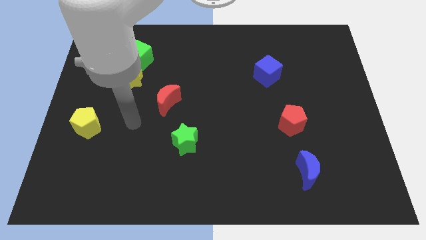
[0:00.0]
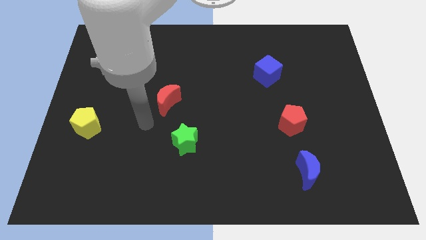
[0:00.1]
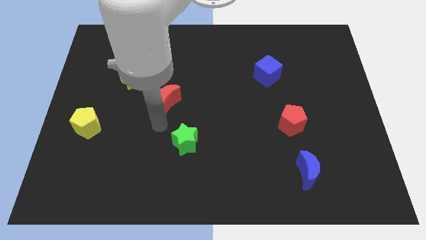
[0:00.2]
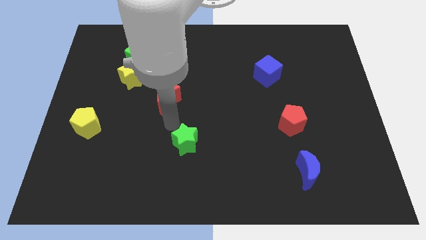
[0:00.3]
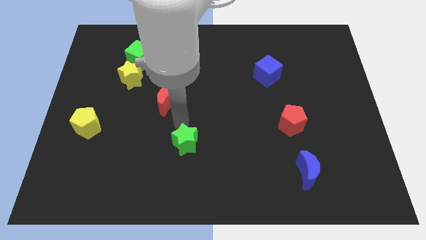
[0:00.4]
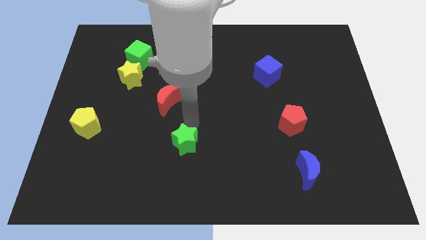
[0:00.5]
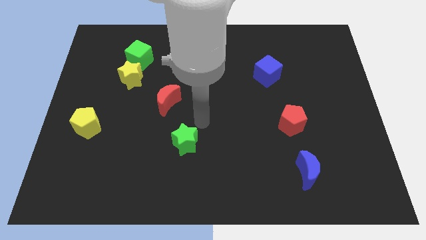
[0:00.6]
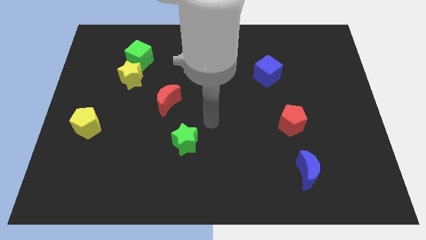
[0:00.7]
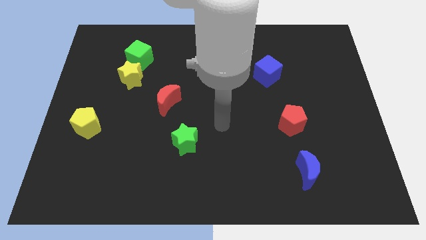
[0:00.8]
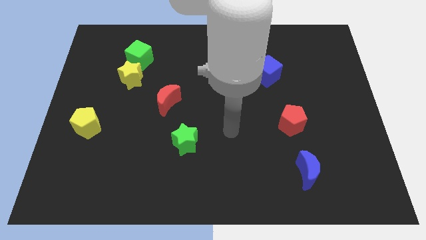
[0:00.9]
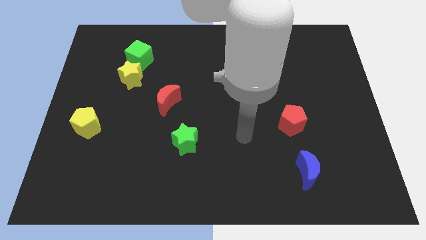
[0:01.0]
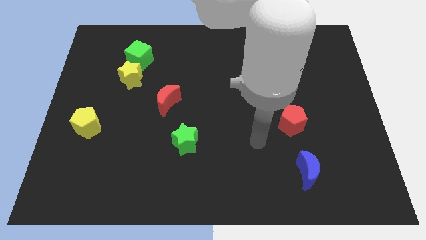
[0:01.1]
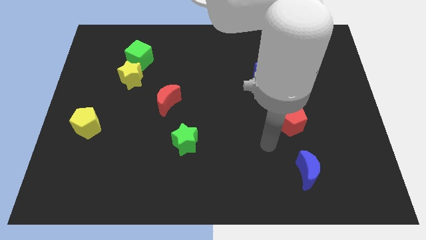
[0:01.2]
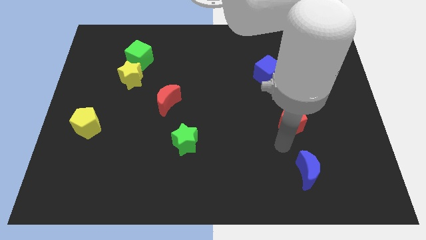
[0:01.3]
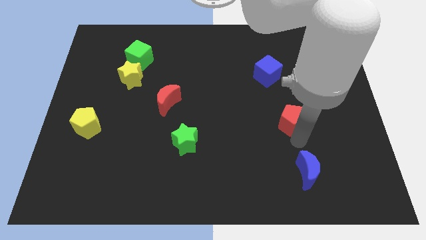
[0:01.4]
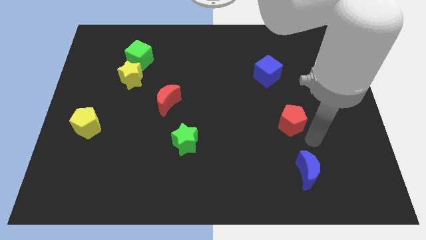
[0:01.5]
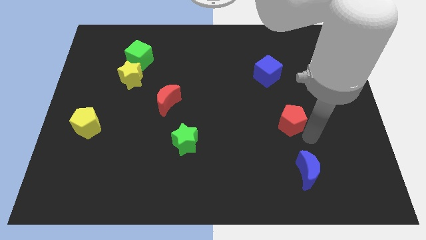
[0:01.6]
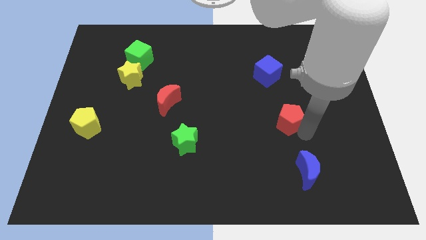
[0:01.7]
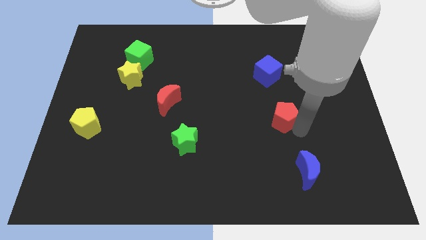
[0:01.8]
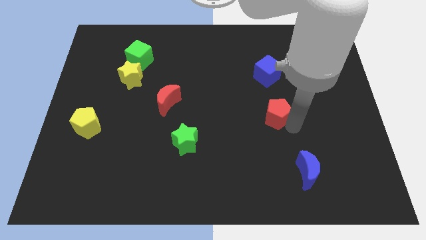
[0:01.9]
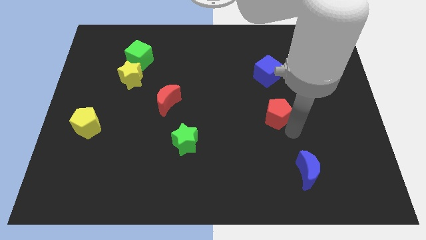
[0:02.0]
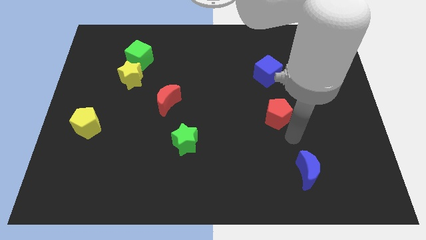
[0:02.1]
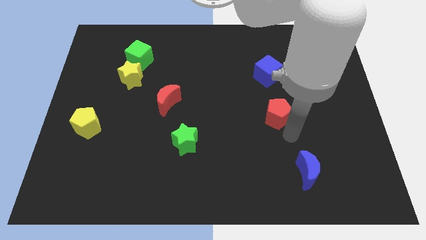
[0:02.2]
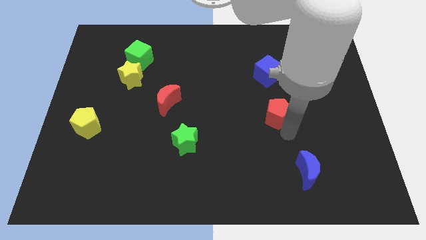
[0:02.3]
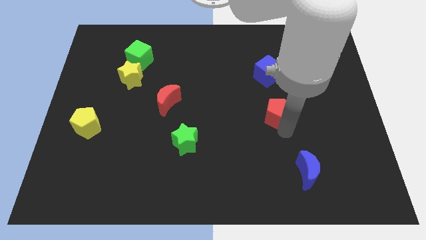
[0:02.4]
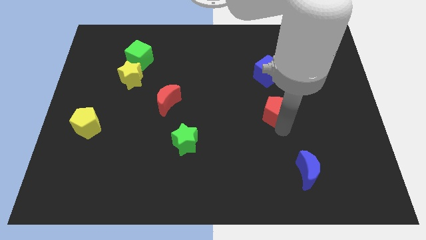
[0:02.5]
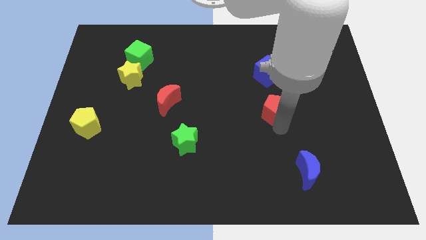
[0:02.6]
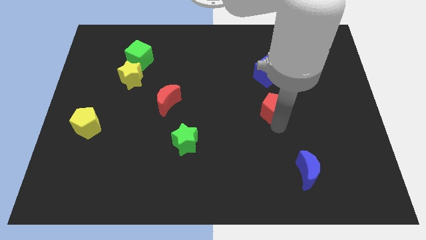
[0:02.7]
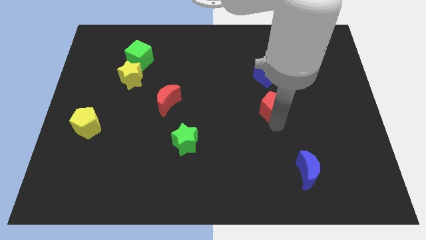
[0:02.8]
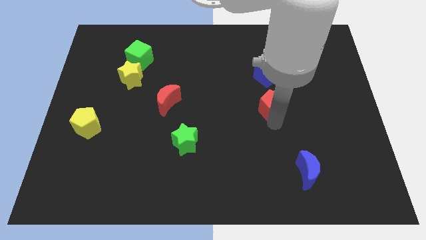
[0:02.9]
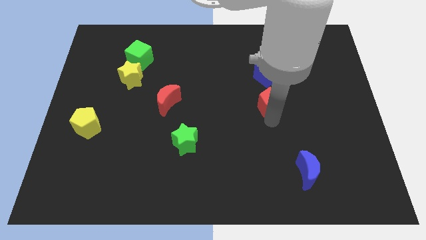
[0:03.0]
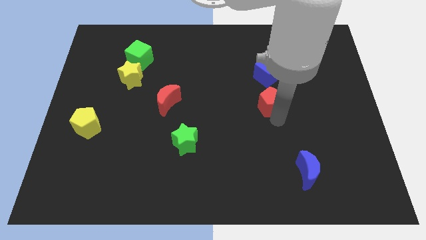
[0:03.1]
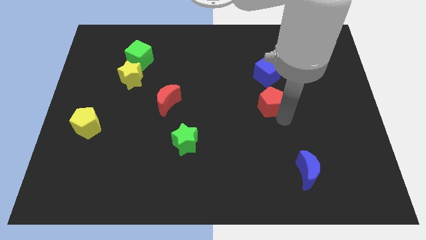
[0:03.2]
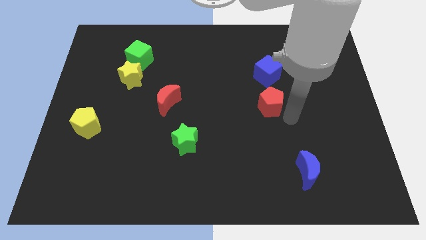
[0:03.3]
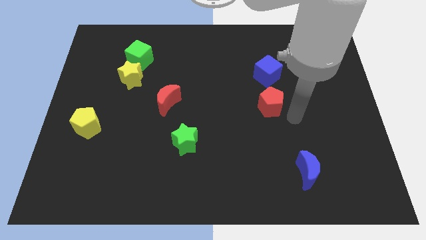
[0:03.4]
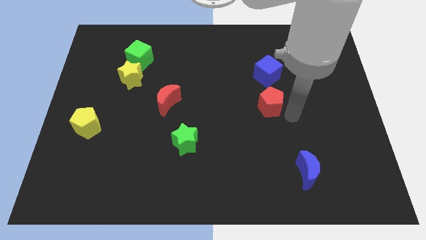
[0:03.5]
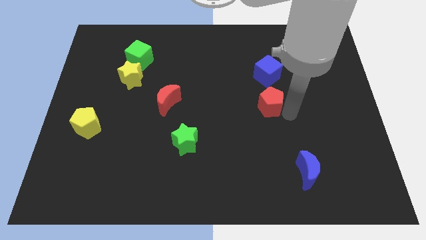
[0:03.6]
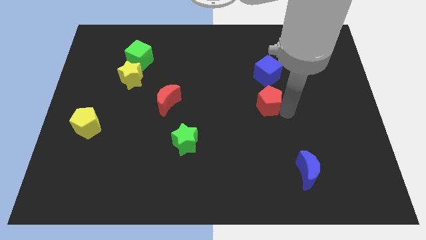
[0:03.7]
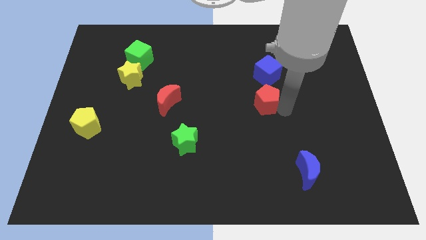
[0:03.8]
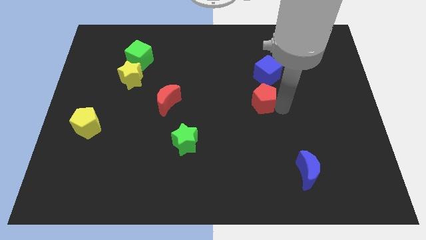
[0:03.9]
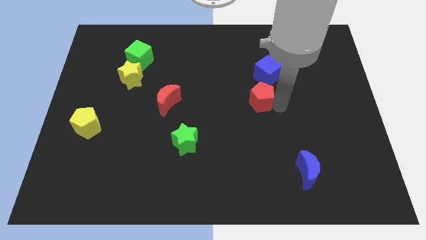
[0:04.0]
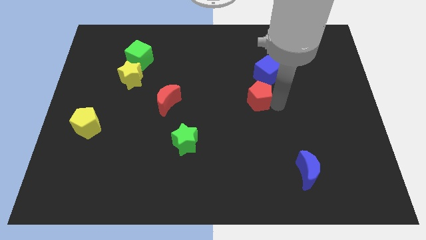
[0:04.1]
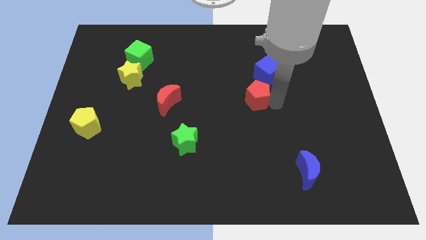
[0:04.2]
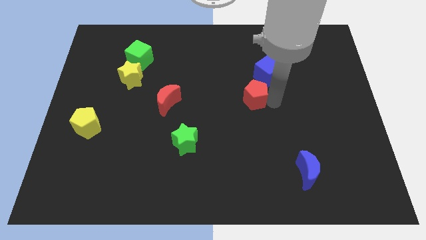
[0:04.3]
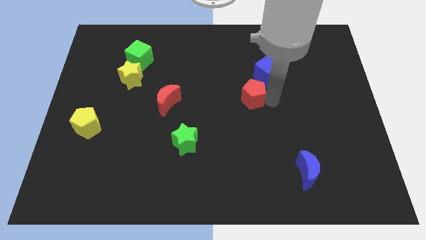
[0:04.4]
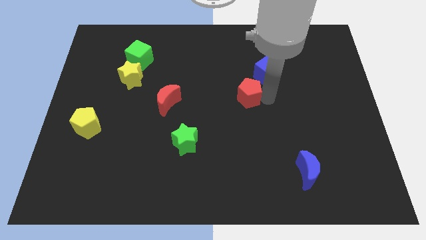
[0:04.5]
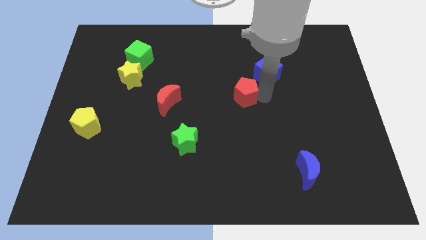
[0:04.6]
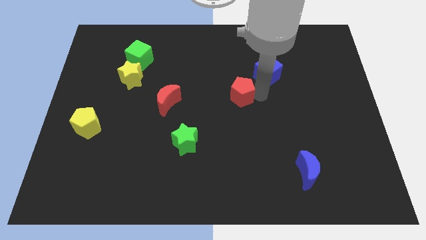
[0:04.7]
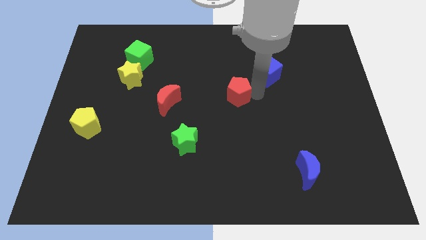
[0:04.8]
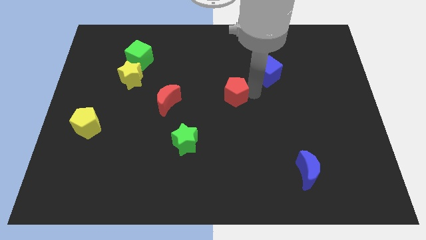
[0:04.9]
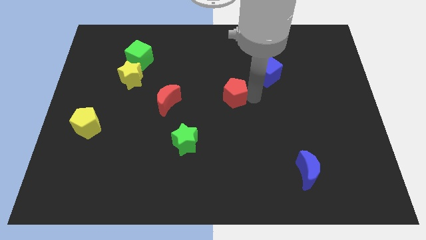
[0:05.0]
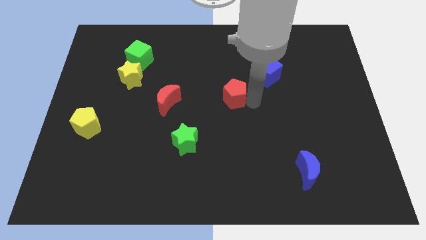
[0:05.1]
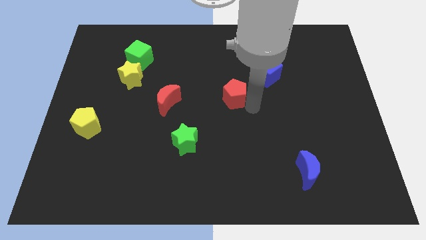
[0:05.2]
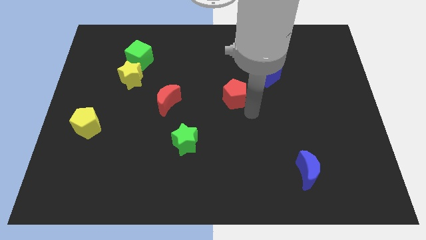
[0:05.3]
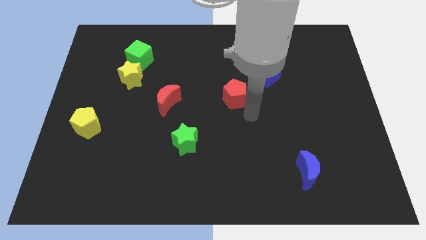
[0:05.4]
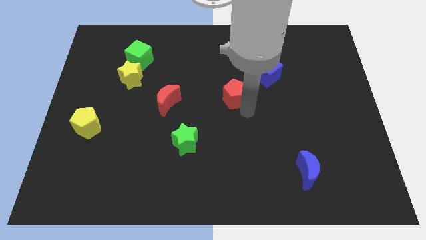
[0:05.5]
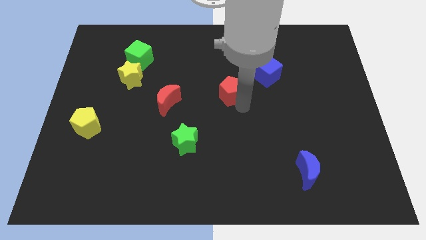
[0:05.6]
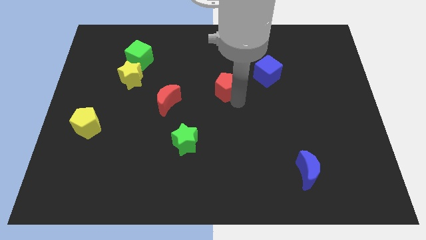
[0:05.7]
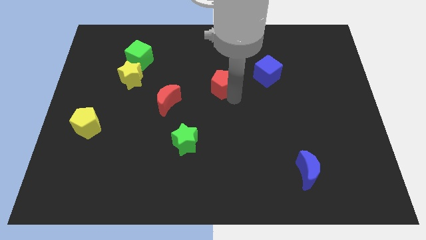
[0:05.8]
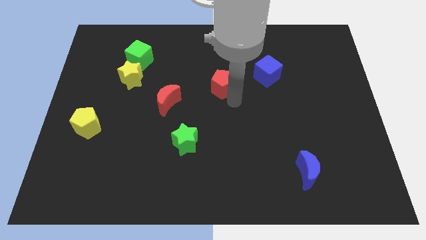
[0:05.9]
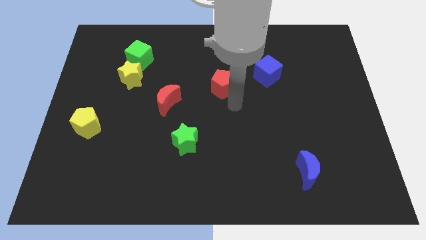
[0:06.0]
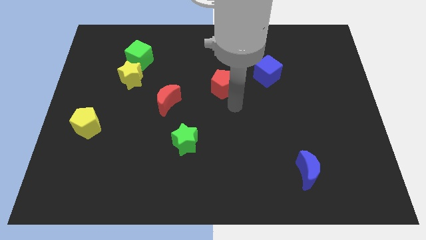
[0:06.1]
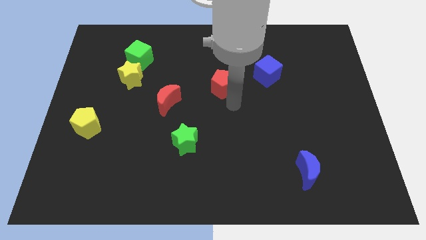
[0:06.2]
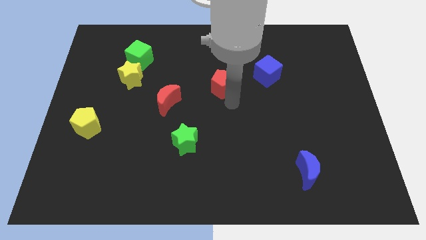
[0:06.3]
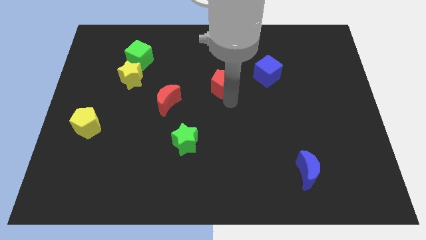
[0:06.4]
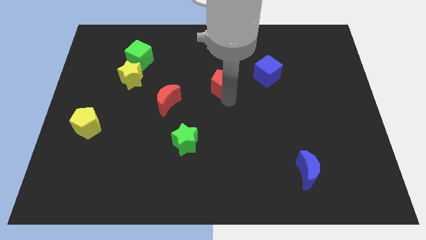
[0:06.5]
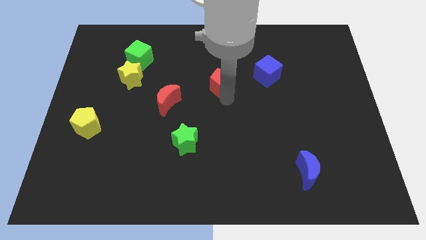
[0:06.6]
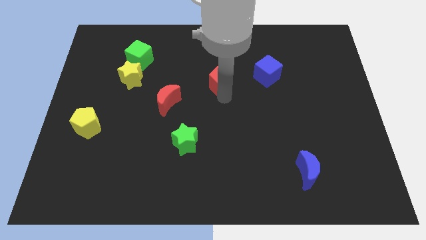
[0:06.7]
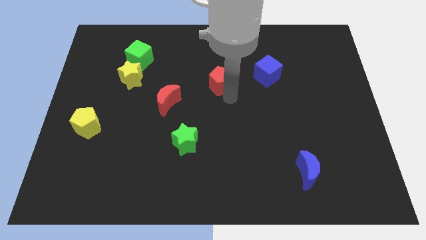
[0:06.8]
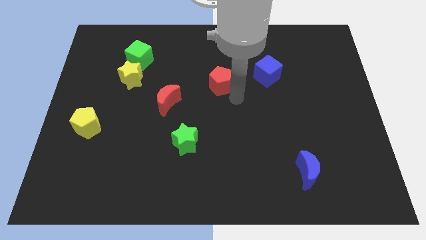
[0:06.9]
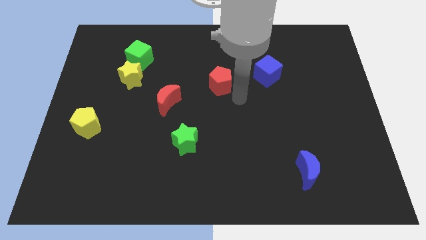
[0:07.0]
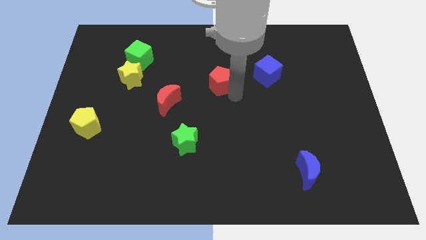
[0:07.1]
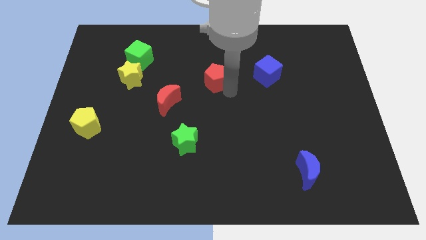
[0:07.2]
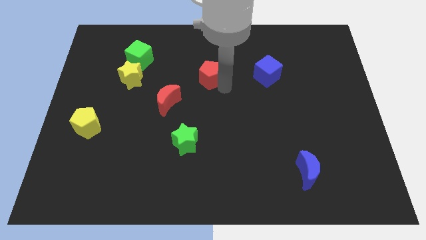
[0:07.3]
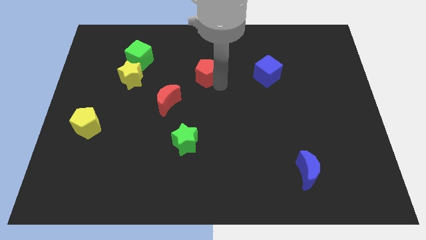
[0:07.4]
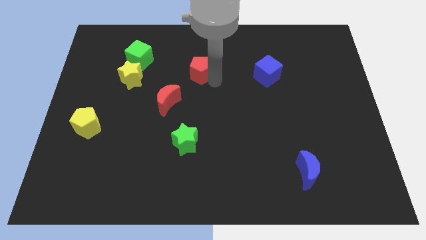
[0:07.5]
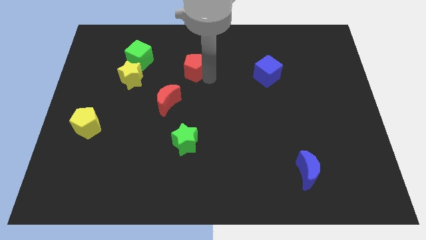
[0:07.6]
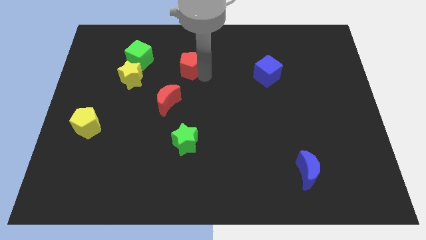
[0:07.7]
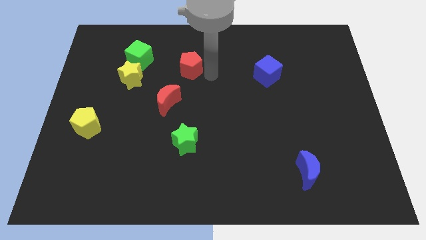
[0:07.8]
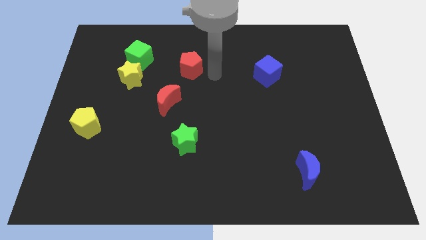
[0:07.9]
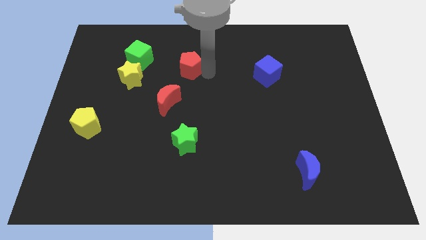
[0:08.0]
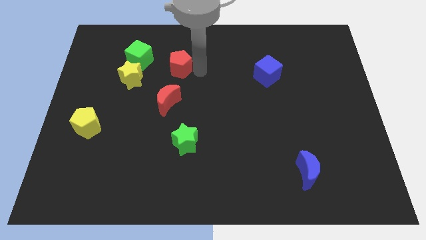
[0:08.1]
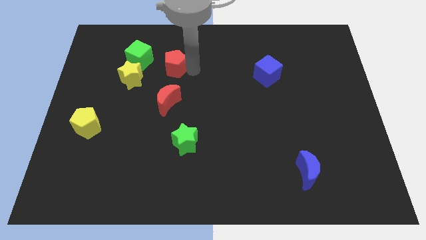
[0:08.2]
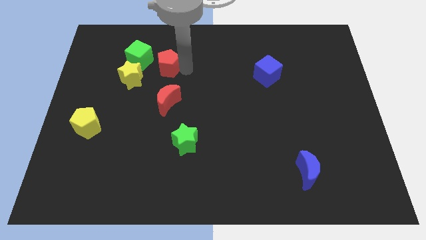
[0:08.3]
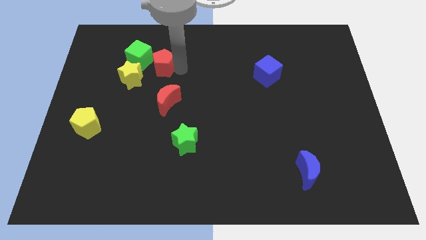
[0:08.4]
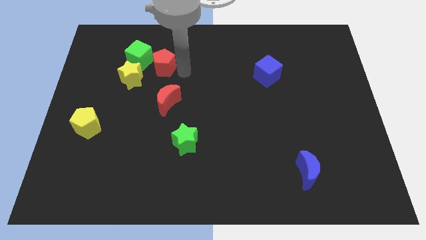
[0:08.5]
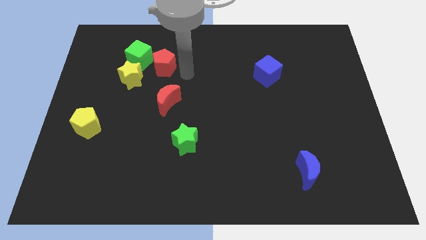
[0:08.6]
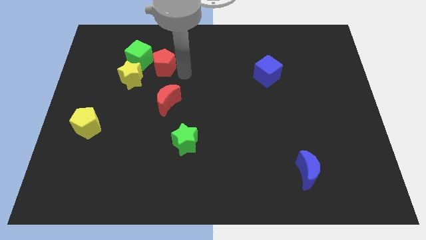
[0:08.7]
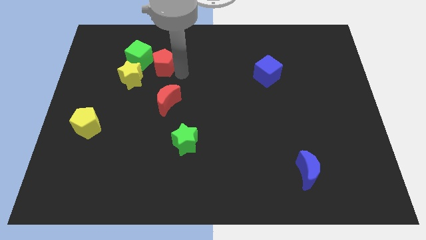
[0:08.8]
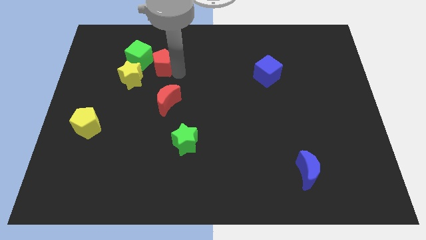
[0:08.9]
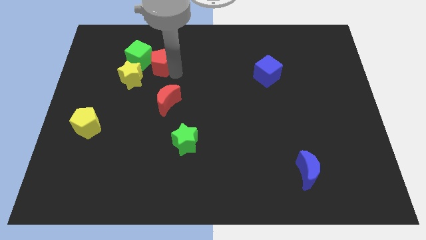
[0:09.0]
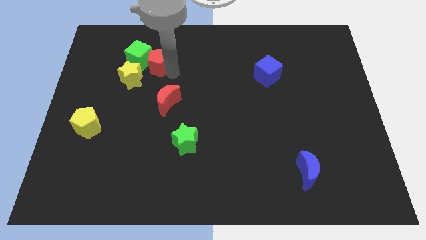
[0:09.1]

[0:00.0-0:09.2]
move the red pentagon close to the green cube
